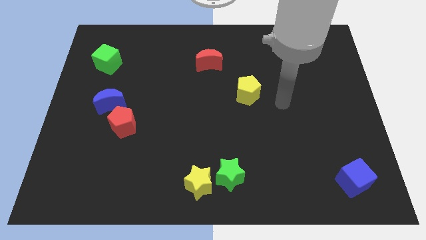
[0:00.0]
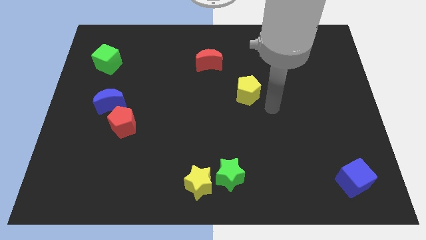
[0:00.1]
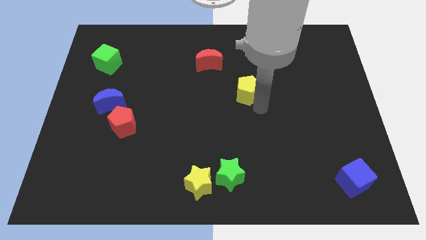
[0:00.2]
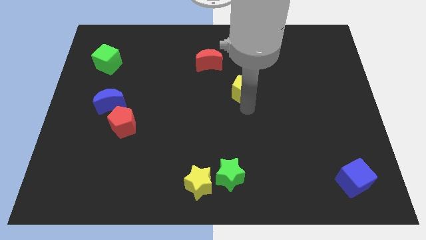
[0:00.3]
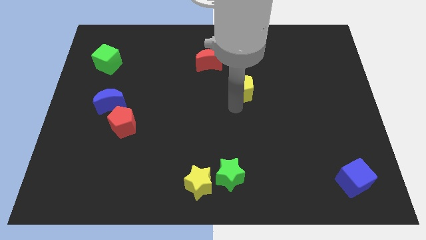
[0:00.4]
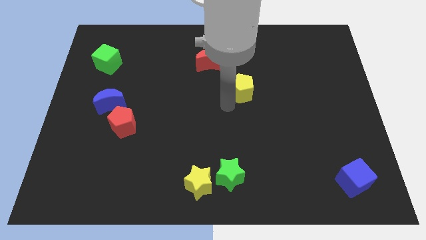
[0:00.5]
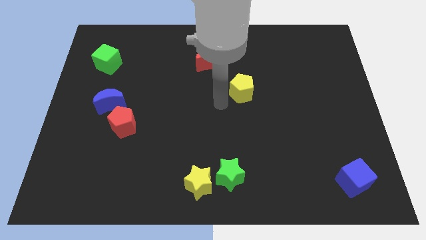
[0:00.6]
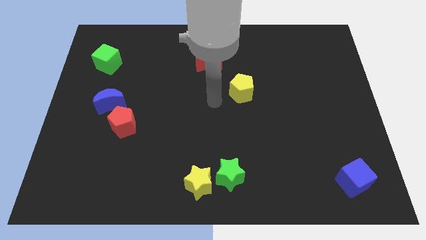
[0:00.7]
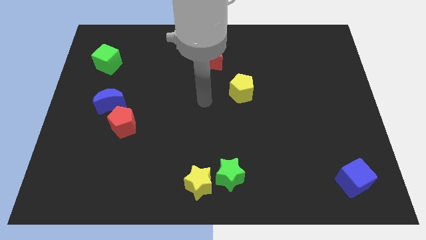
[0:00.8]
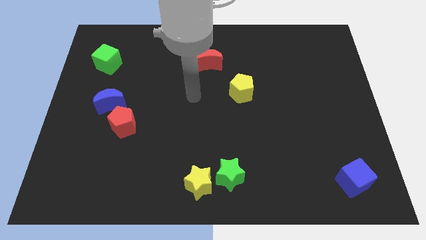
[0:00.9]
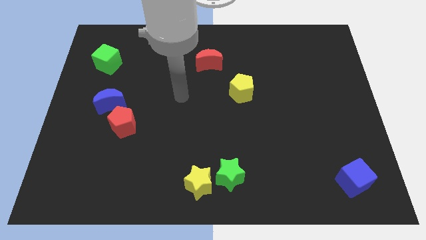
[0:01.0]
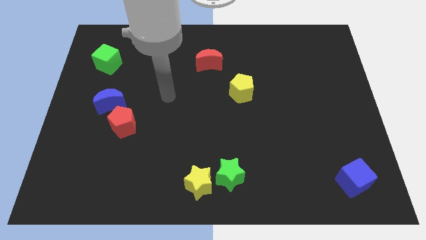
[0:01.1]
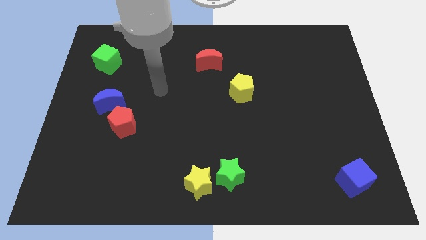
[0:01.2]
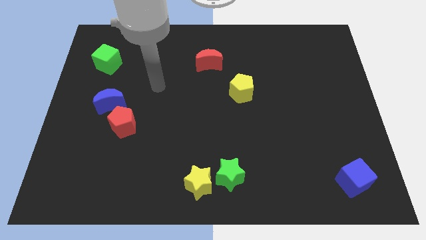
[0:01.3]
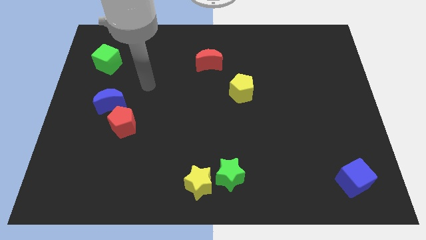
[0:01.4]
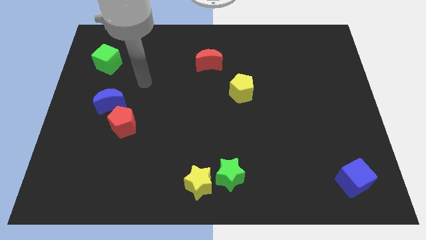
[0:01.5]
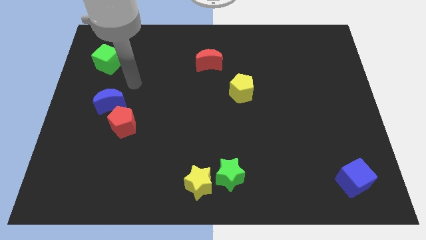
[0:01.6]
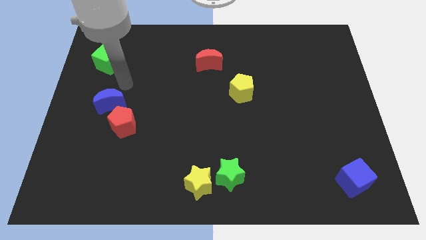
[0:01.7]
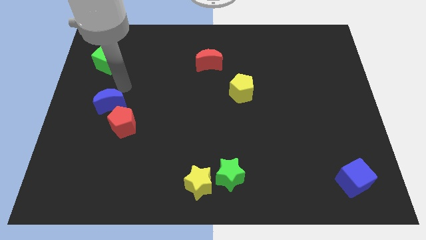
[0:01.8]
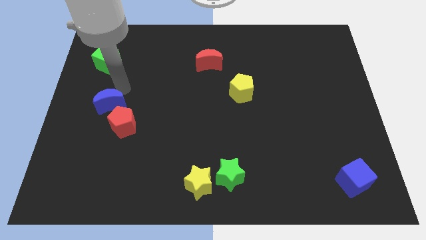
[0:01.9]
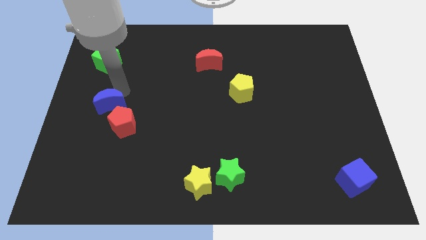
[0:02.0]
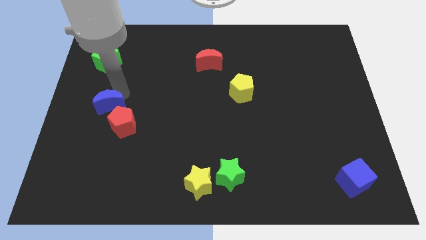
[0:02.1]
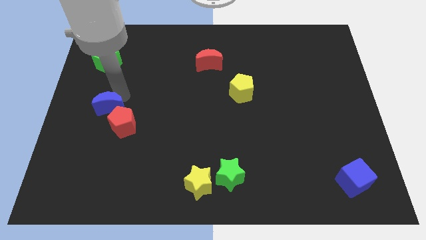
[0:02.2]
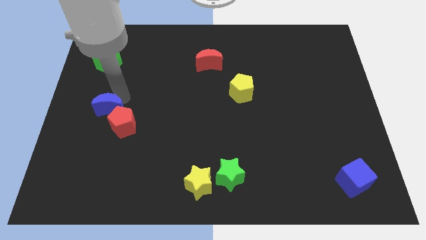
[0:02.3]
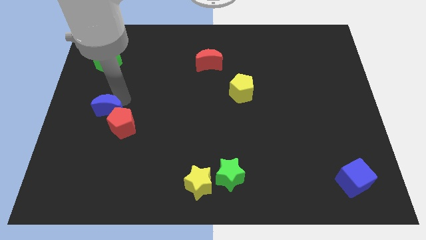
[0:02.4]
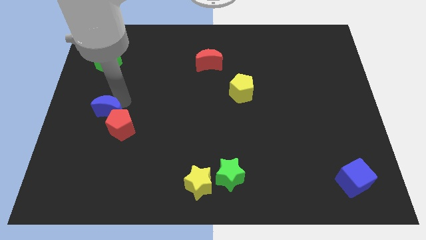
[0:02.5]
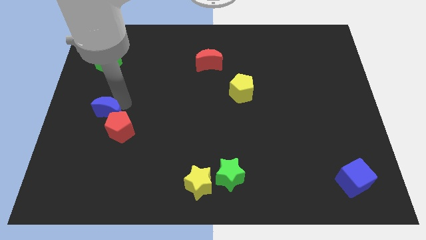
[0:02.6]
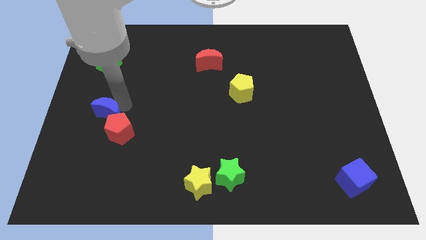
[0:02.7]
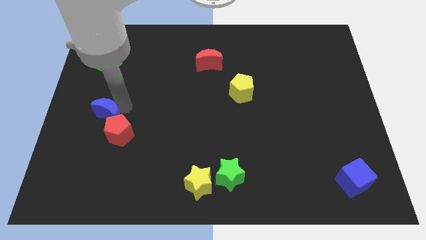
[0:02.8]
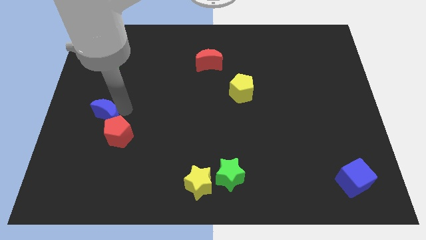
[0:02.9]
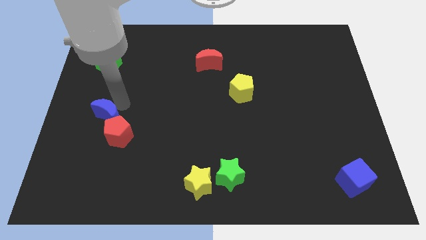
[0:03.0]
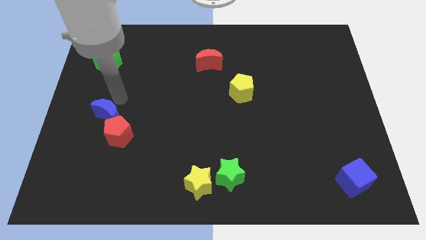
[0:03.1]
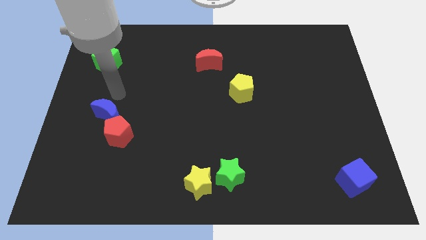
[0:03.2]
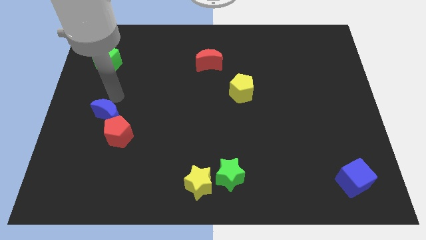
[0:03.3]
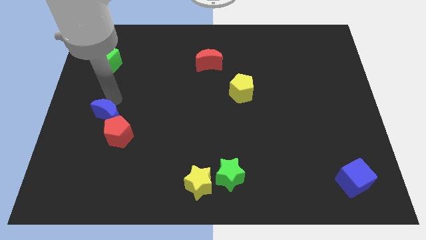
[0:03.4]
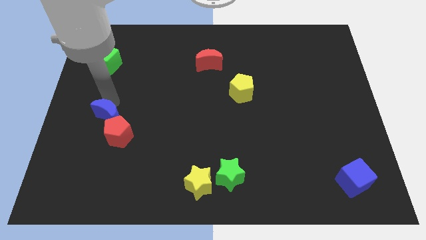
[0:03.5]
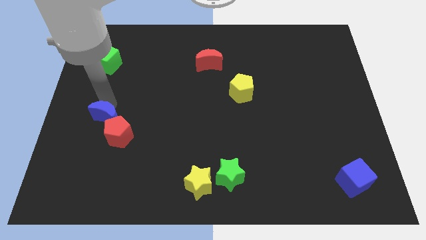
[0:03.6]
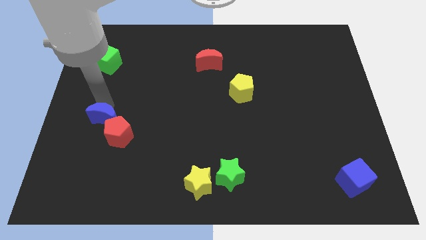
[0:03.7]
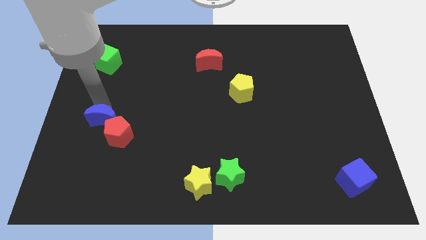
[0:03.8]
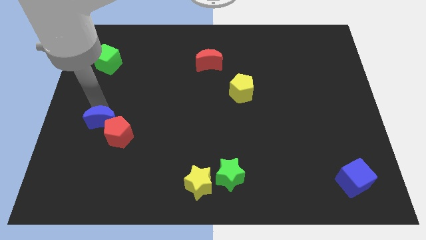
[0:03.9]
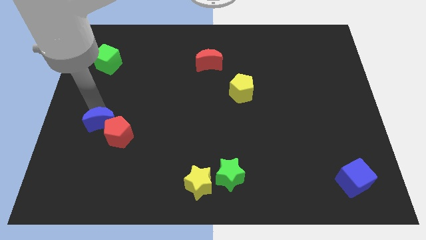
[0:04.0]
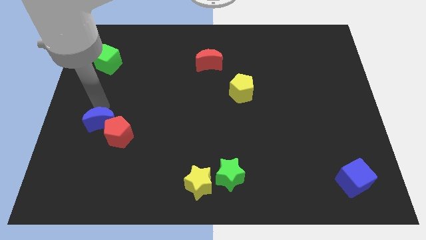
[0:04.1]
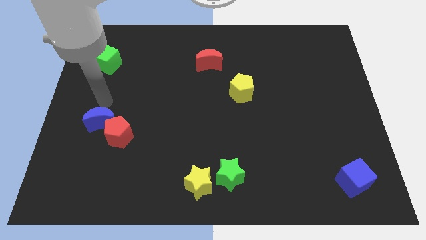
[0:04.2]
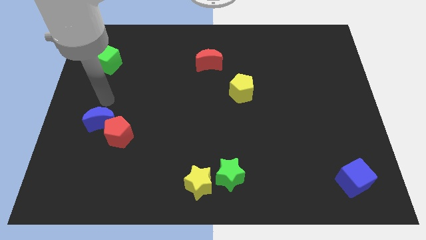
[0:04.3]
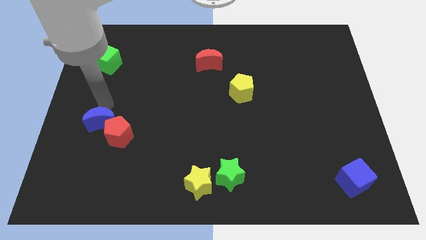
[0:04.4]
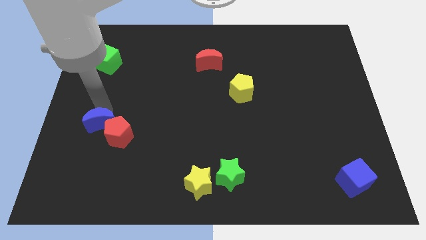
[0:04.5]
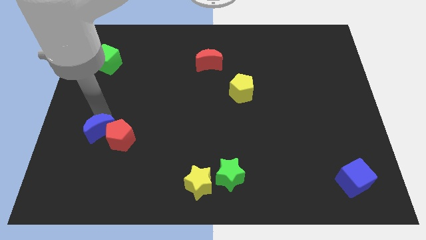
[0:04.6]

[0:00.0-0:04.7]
move the blue moon downwards a bit

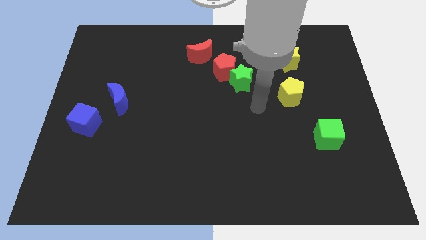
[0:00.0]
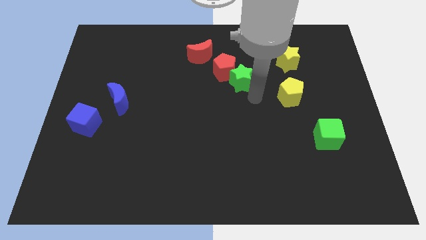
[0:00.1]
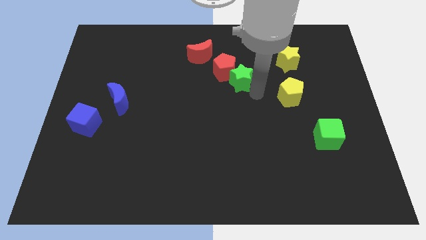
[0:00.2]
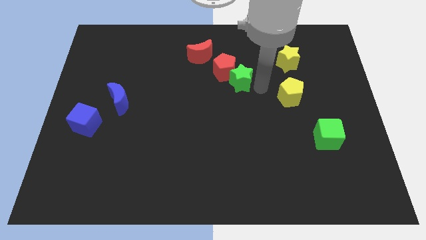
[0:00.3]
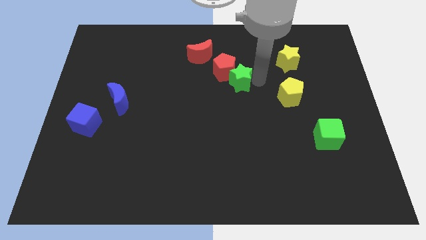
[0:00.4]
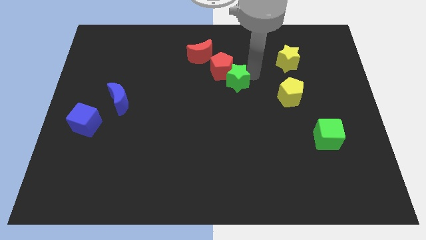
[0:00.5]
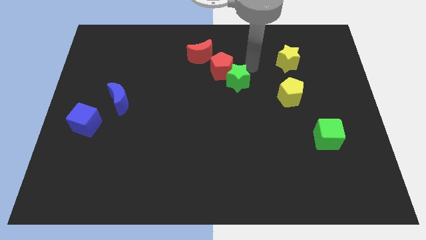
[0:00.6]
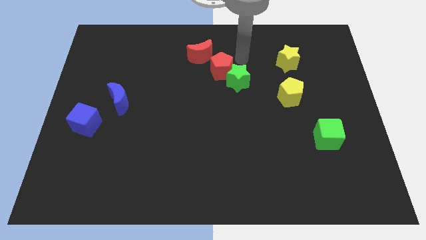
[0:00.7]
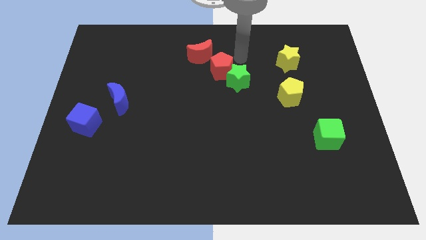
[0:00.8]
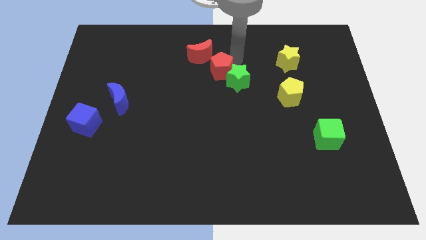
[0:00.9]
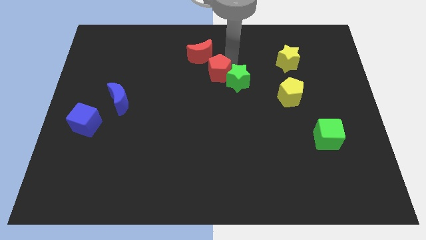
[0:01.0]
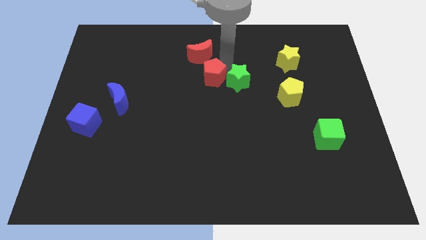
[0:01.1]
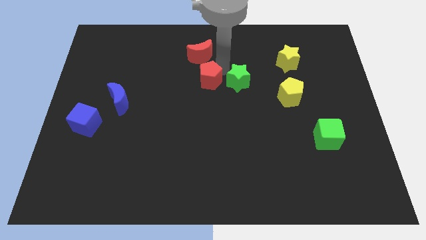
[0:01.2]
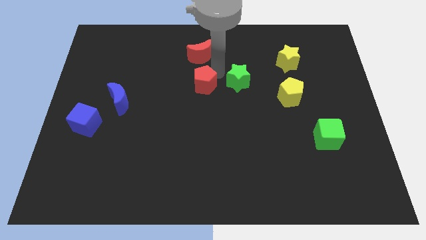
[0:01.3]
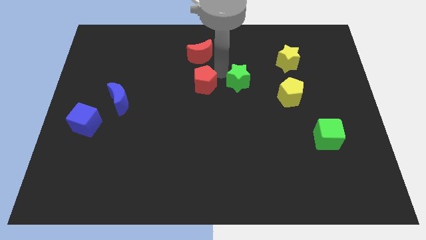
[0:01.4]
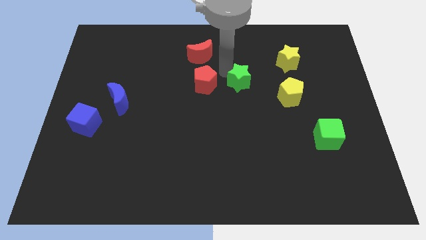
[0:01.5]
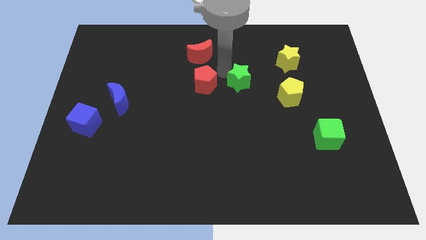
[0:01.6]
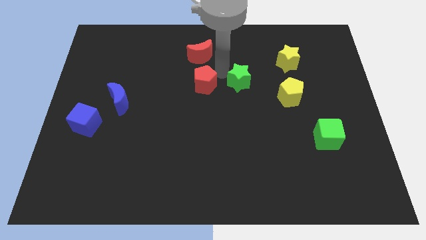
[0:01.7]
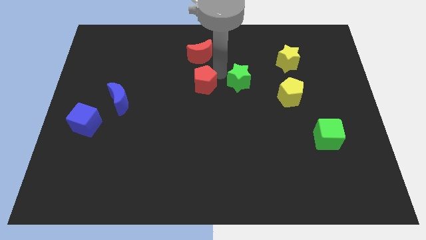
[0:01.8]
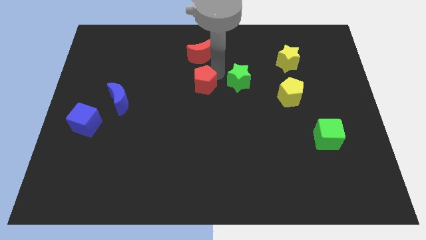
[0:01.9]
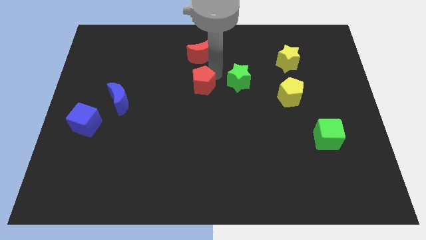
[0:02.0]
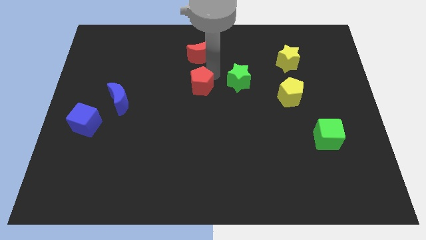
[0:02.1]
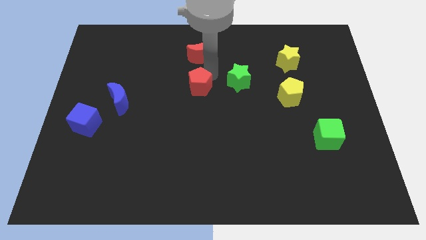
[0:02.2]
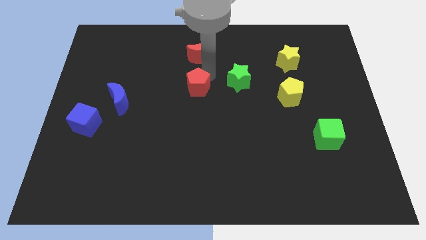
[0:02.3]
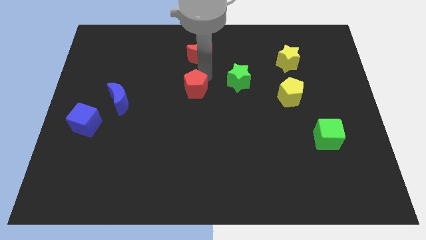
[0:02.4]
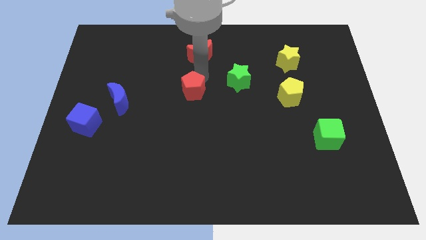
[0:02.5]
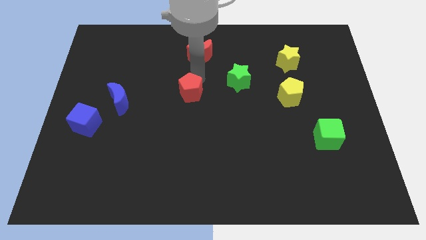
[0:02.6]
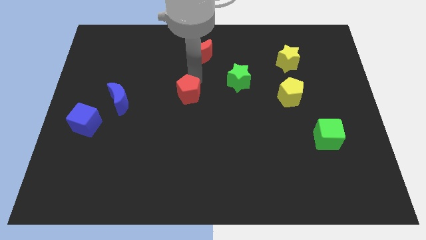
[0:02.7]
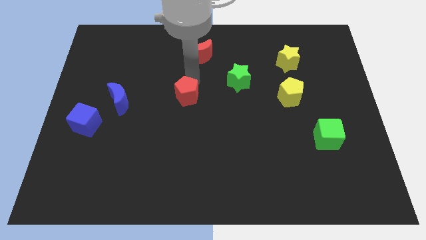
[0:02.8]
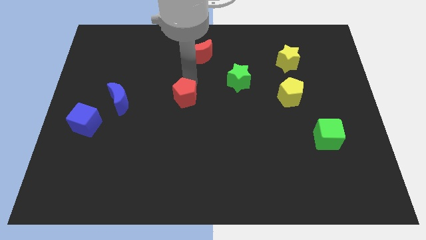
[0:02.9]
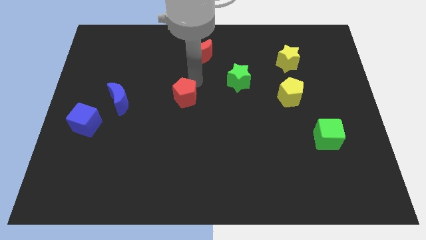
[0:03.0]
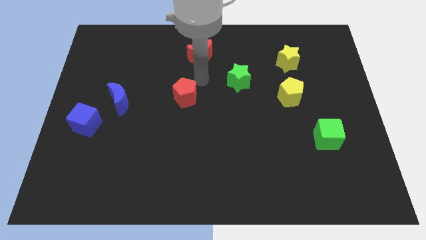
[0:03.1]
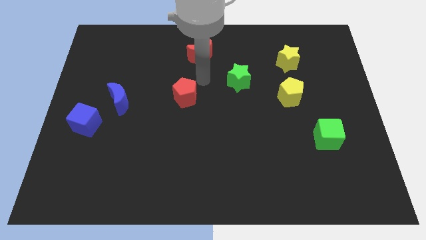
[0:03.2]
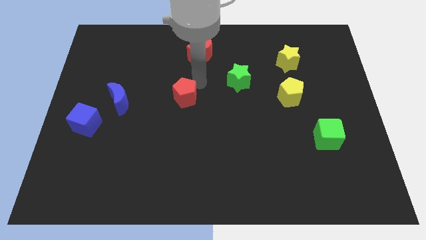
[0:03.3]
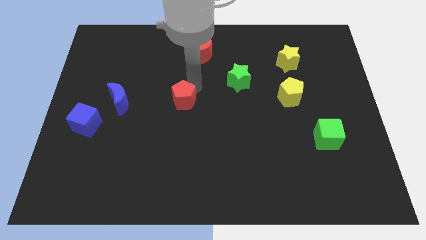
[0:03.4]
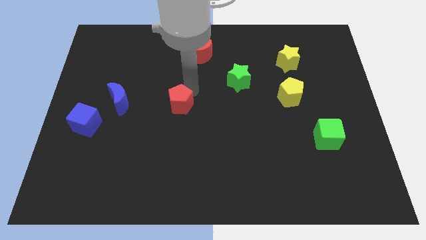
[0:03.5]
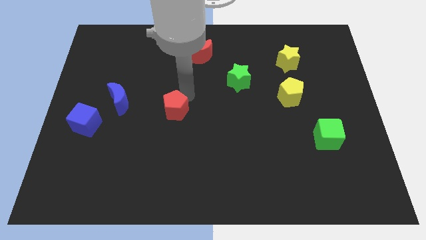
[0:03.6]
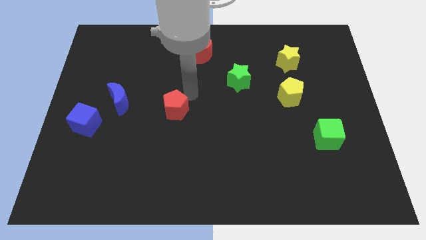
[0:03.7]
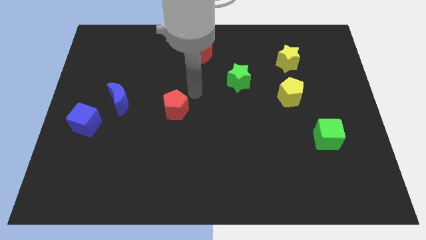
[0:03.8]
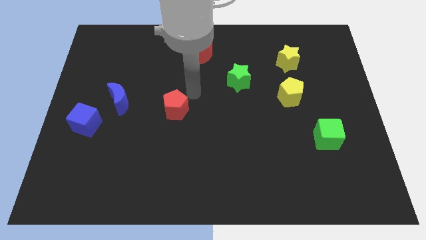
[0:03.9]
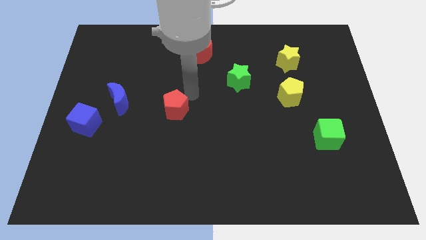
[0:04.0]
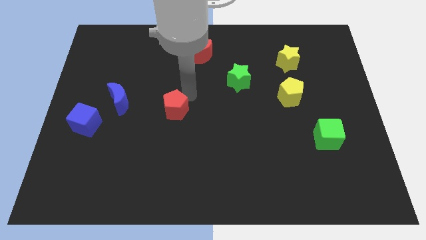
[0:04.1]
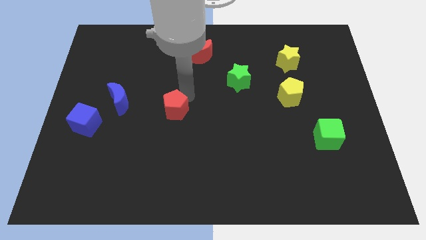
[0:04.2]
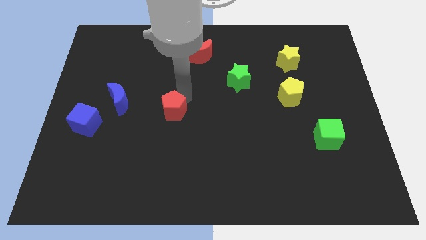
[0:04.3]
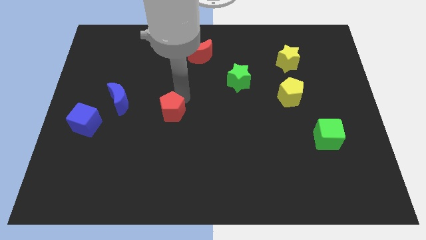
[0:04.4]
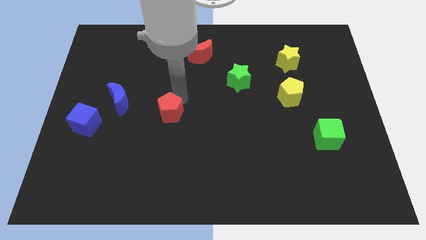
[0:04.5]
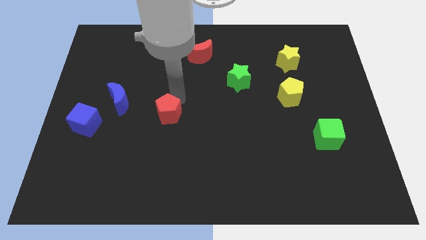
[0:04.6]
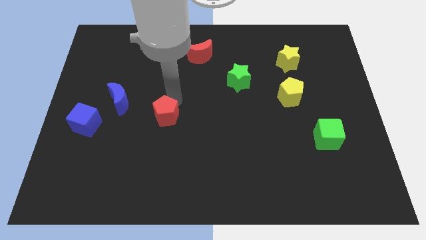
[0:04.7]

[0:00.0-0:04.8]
push the red pentagon downwards and left
